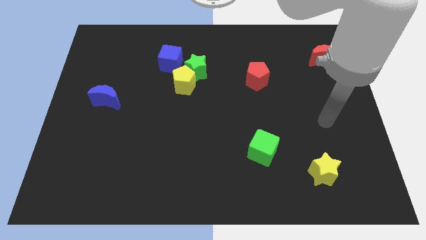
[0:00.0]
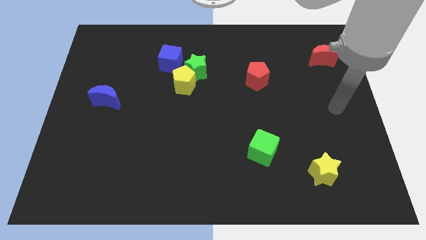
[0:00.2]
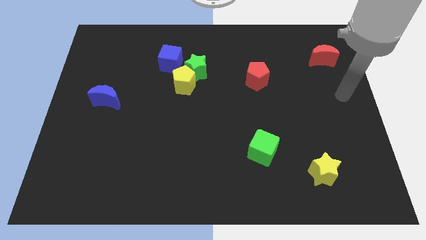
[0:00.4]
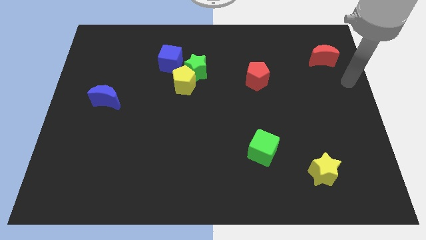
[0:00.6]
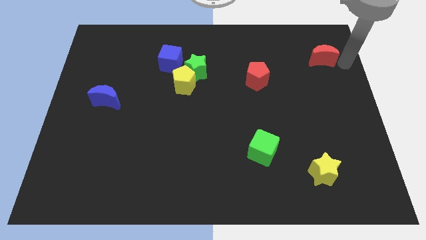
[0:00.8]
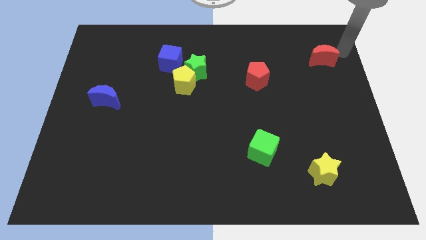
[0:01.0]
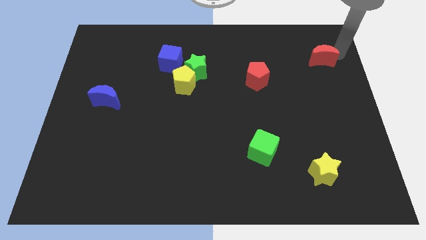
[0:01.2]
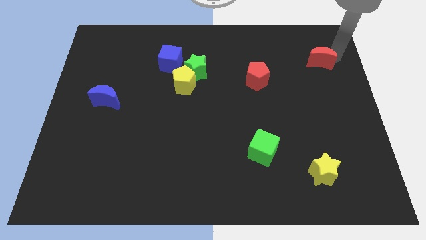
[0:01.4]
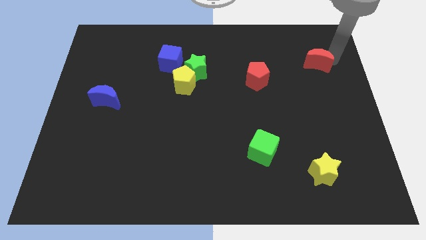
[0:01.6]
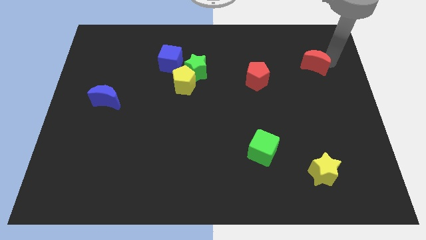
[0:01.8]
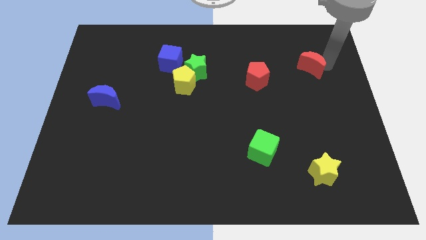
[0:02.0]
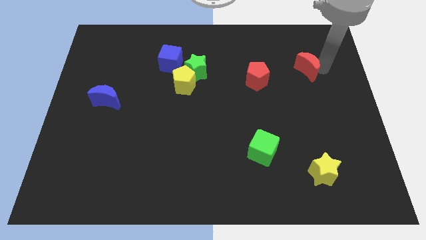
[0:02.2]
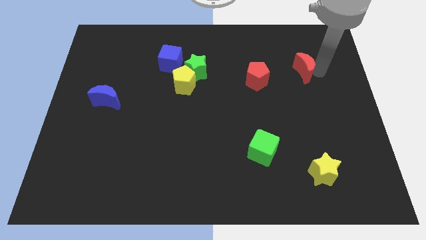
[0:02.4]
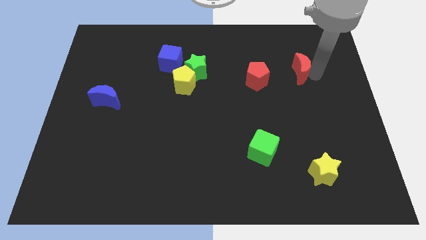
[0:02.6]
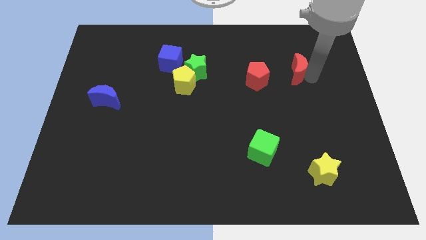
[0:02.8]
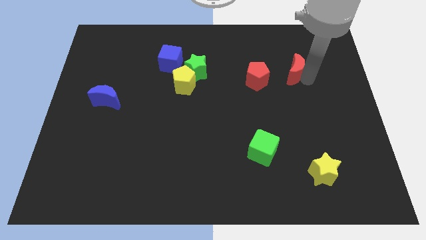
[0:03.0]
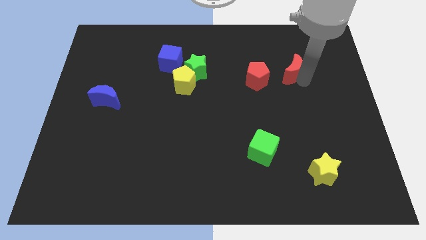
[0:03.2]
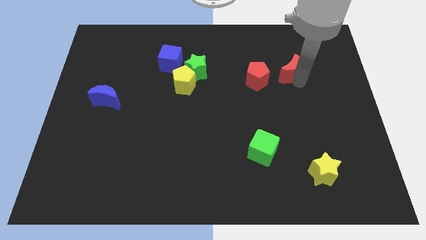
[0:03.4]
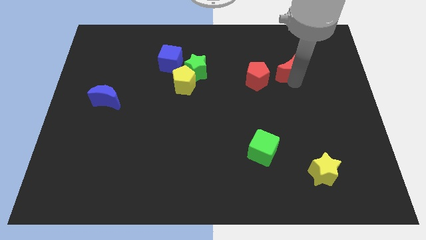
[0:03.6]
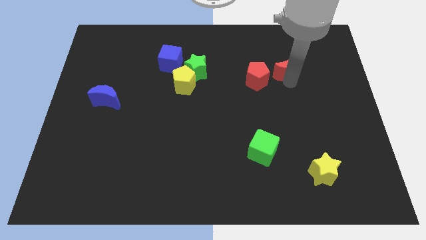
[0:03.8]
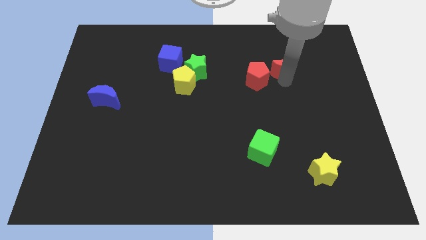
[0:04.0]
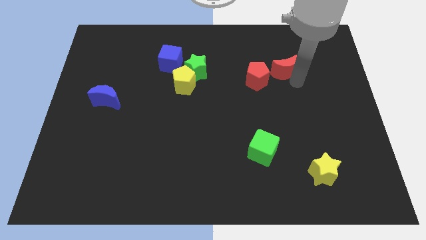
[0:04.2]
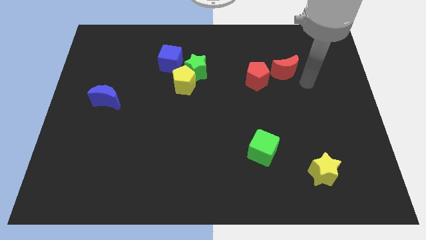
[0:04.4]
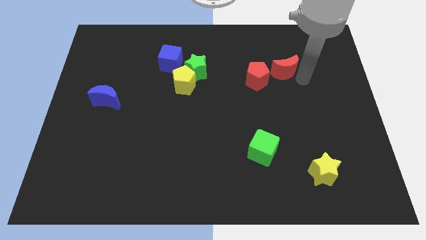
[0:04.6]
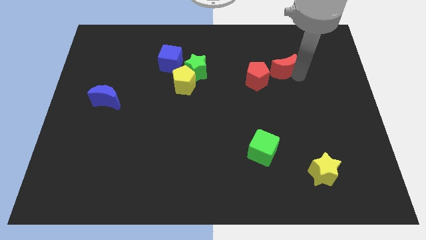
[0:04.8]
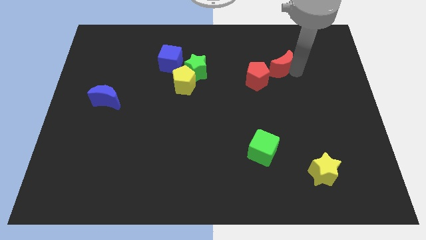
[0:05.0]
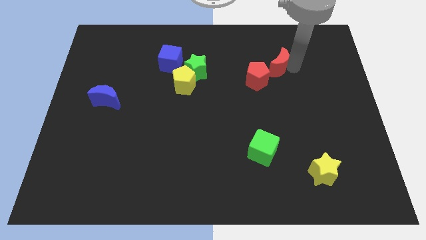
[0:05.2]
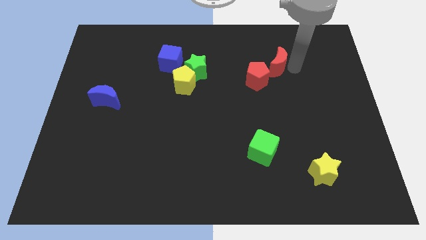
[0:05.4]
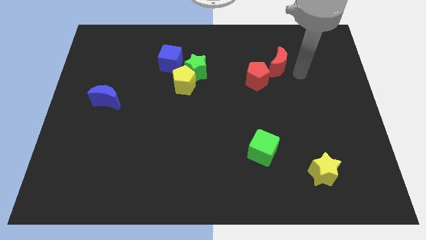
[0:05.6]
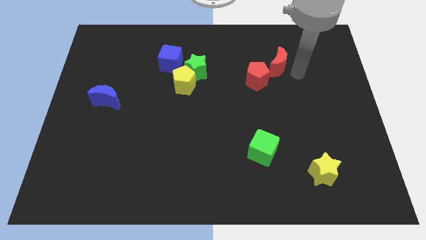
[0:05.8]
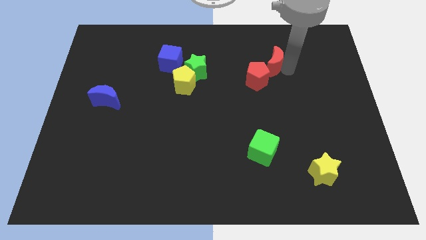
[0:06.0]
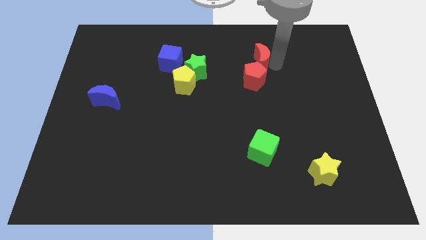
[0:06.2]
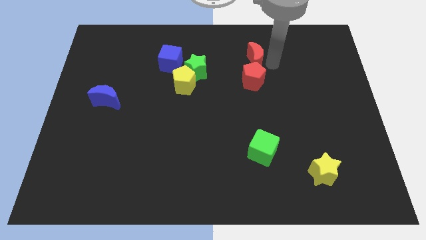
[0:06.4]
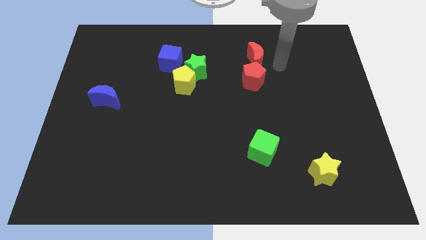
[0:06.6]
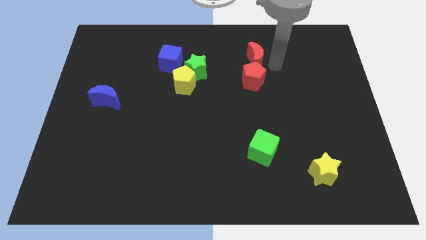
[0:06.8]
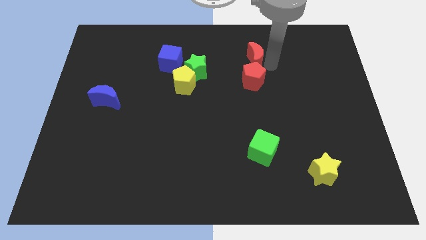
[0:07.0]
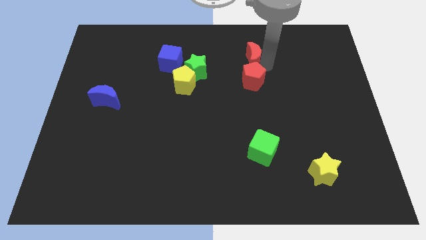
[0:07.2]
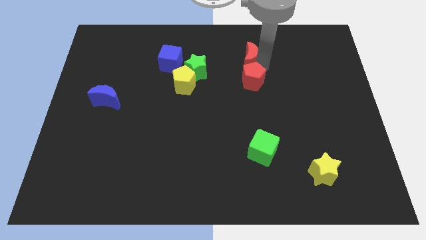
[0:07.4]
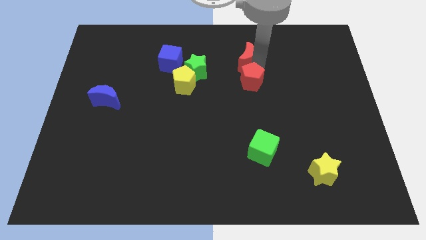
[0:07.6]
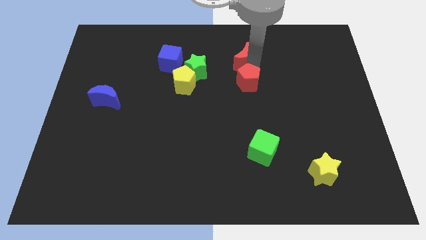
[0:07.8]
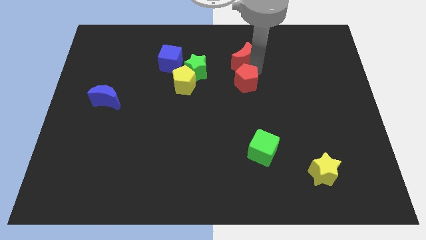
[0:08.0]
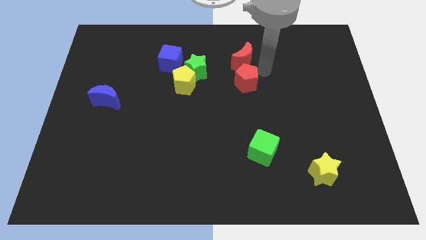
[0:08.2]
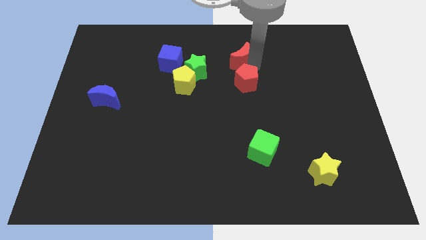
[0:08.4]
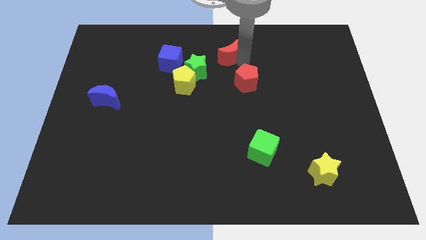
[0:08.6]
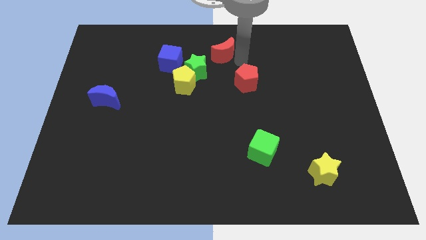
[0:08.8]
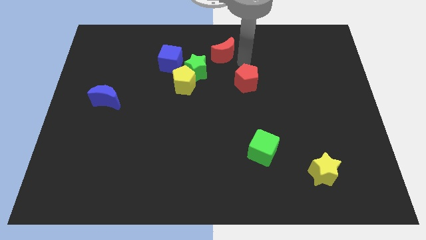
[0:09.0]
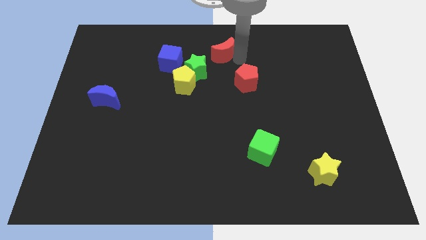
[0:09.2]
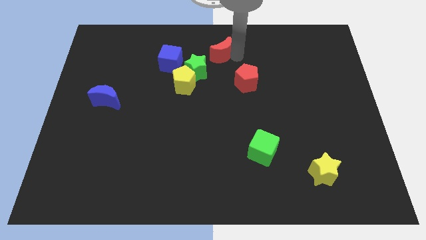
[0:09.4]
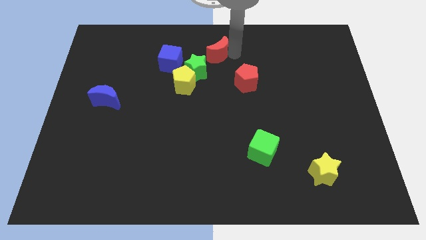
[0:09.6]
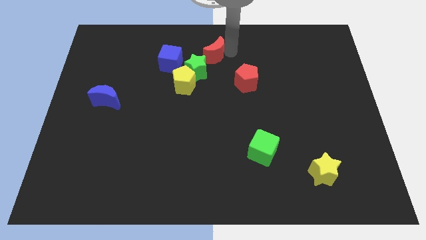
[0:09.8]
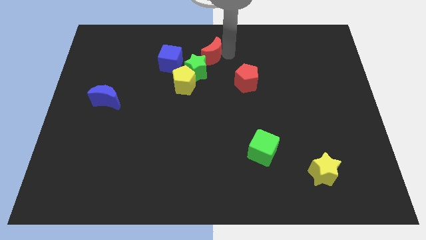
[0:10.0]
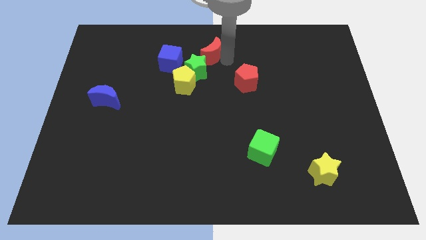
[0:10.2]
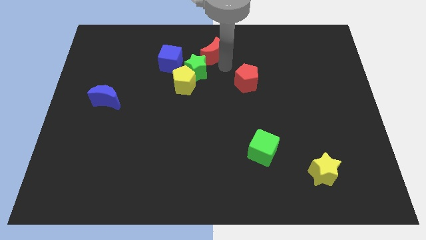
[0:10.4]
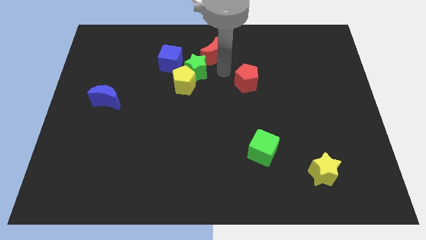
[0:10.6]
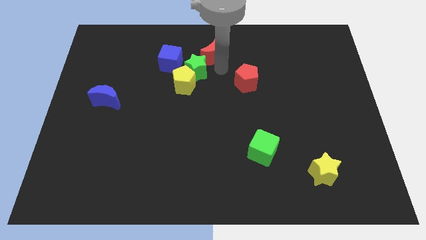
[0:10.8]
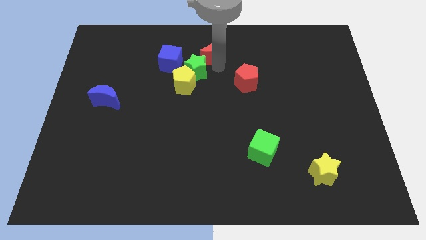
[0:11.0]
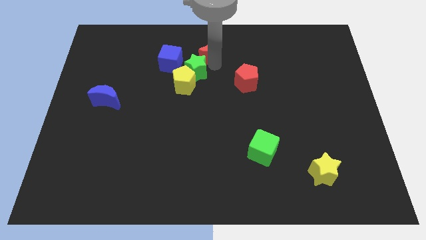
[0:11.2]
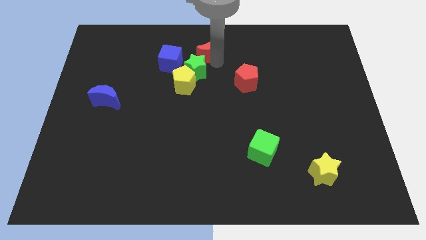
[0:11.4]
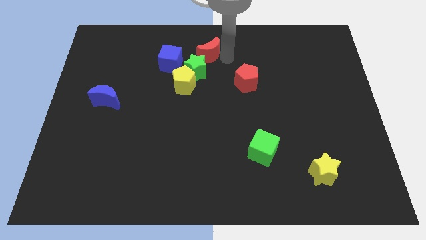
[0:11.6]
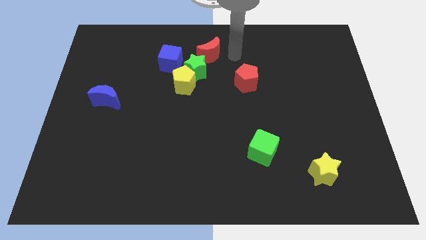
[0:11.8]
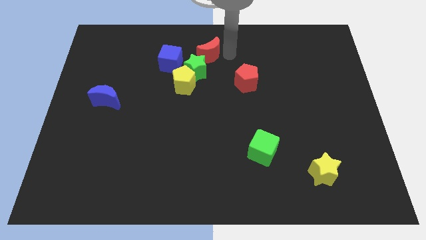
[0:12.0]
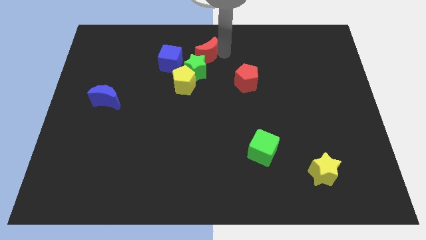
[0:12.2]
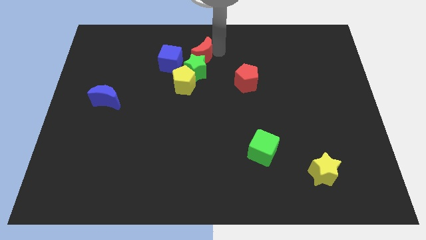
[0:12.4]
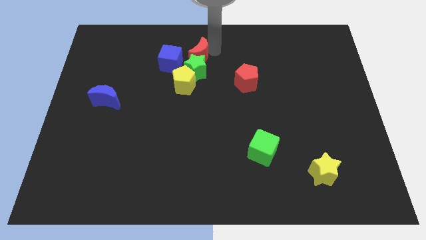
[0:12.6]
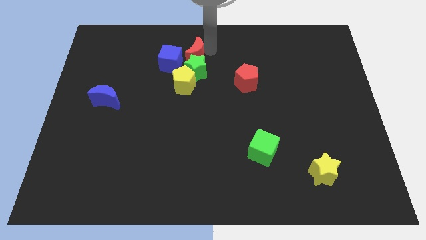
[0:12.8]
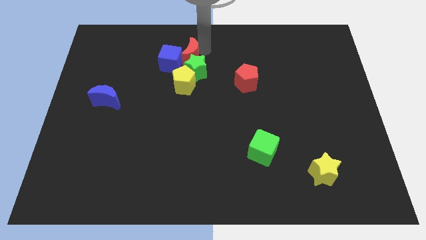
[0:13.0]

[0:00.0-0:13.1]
put the red moon close to the blue cube

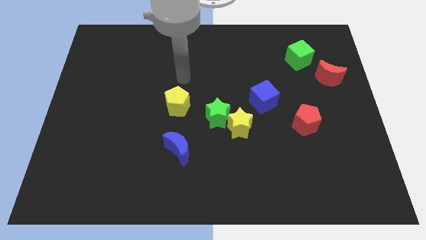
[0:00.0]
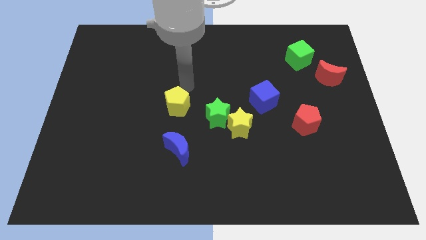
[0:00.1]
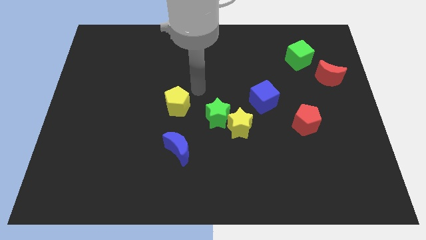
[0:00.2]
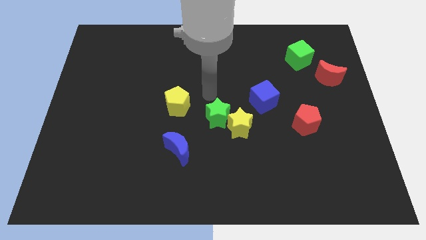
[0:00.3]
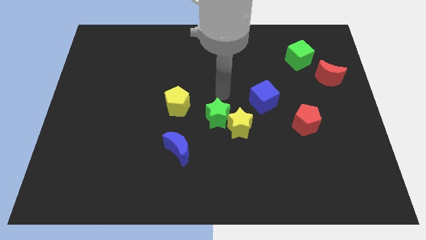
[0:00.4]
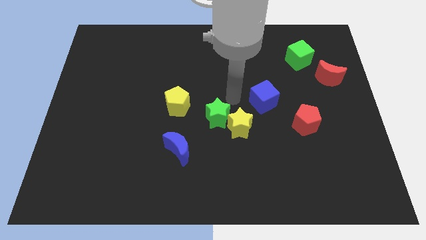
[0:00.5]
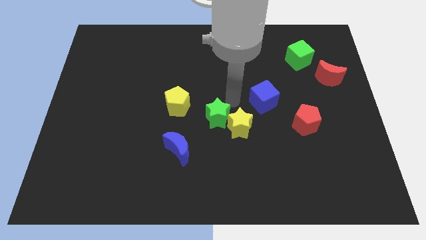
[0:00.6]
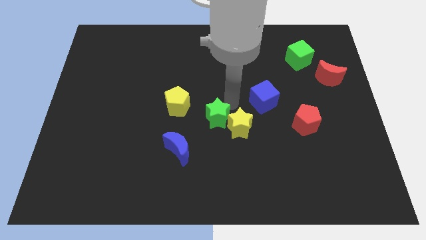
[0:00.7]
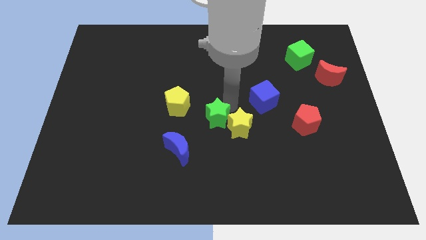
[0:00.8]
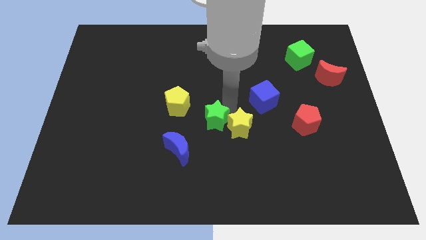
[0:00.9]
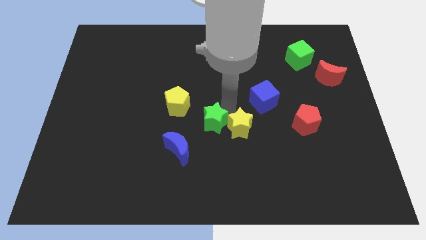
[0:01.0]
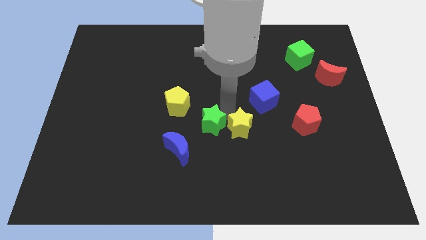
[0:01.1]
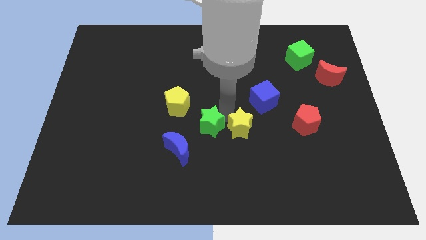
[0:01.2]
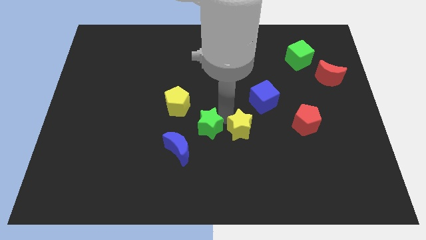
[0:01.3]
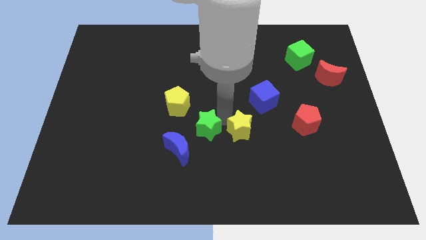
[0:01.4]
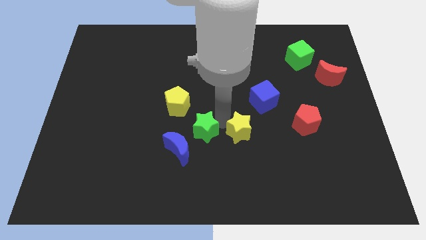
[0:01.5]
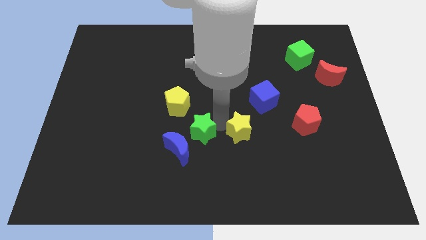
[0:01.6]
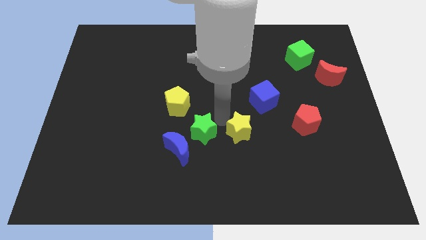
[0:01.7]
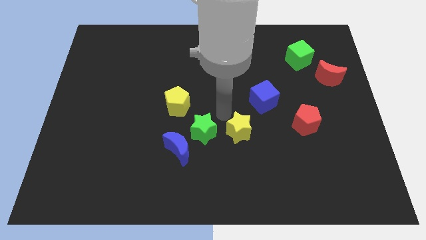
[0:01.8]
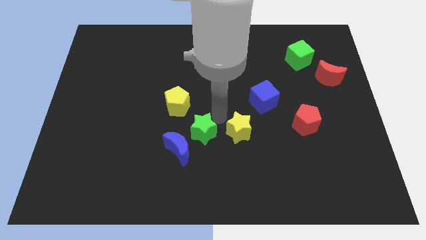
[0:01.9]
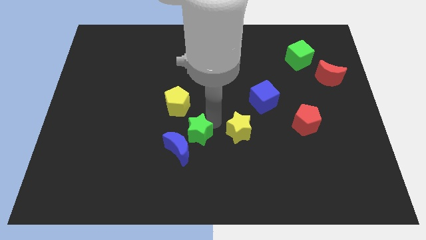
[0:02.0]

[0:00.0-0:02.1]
put the green star next to the blue moon
